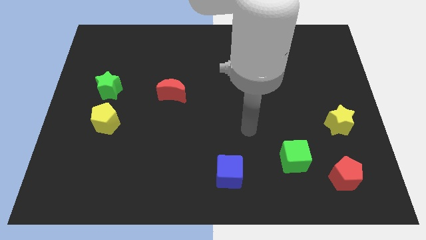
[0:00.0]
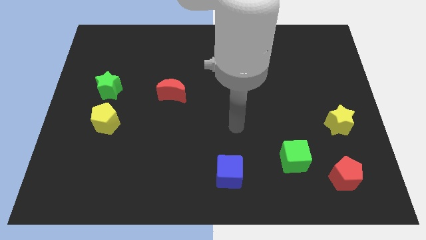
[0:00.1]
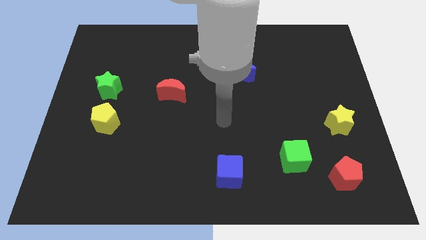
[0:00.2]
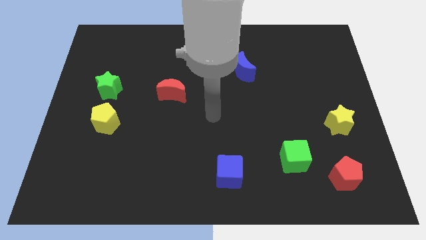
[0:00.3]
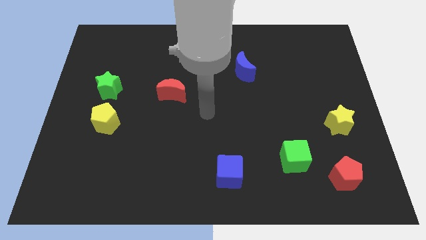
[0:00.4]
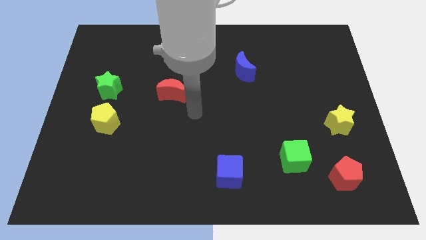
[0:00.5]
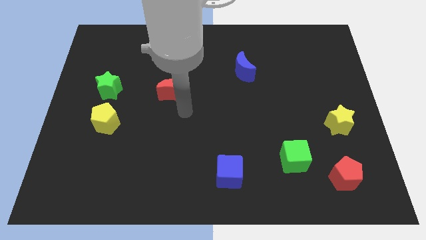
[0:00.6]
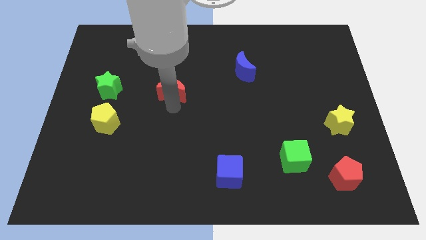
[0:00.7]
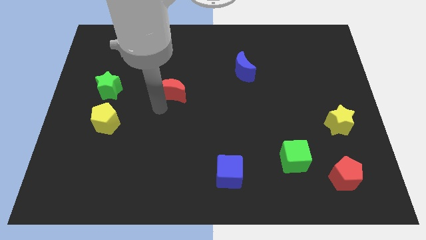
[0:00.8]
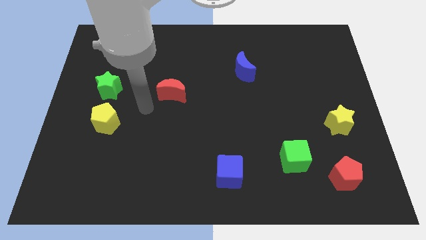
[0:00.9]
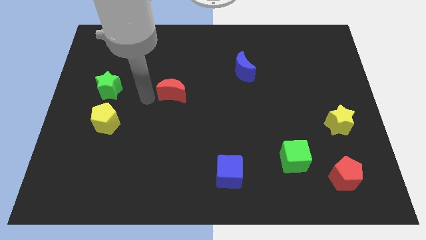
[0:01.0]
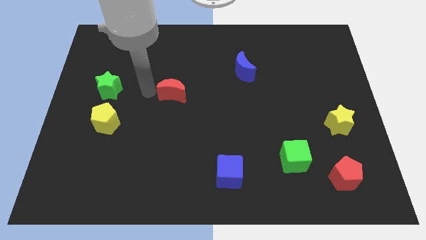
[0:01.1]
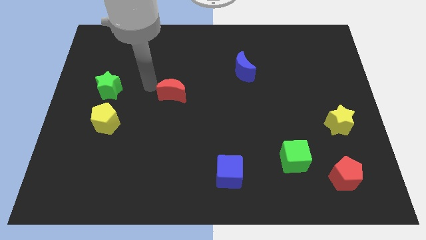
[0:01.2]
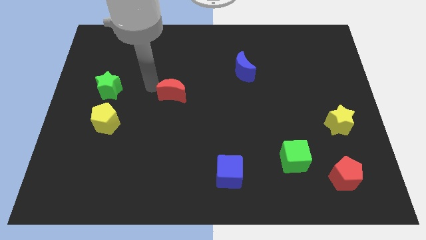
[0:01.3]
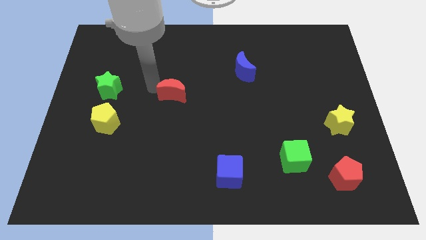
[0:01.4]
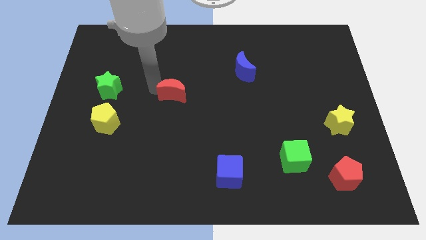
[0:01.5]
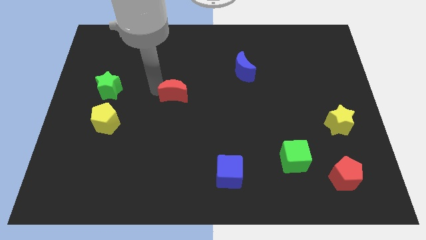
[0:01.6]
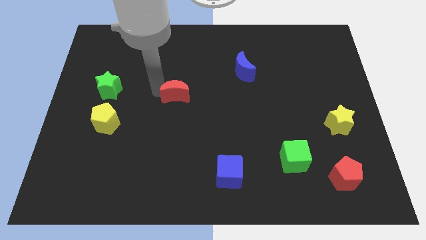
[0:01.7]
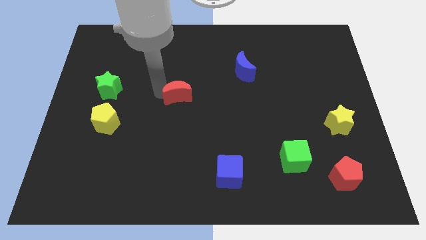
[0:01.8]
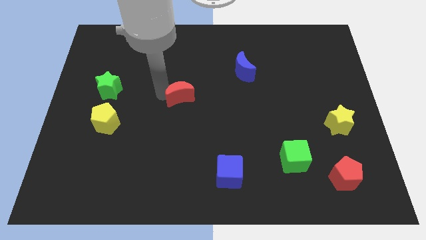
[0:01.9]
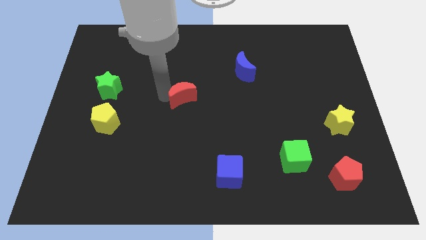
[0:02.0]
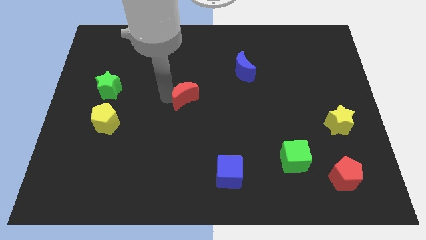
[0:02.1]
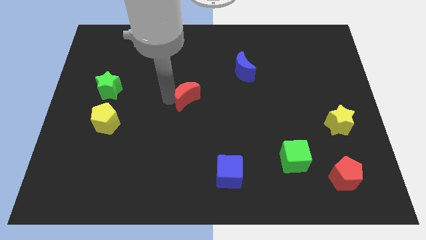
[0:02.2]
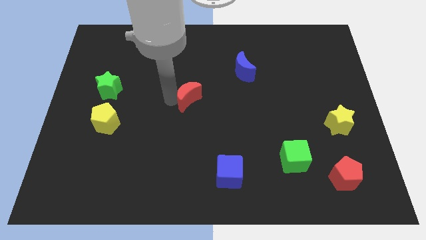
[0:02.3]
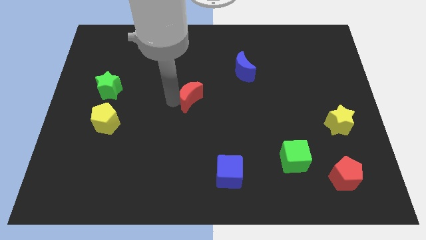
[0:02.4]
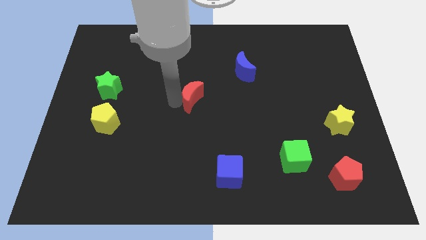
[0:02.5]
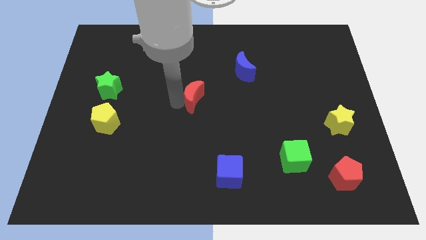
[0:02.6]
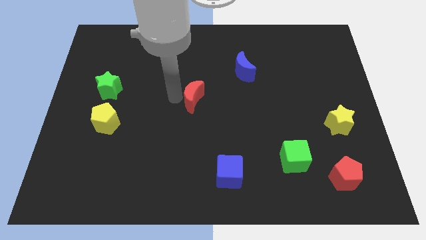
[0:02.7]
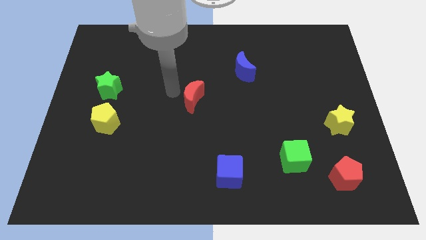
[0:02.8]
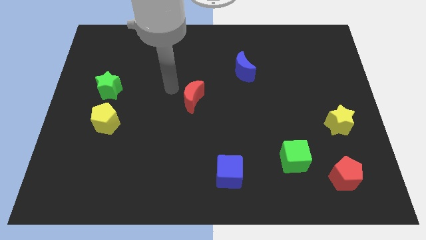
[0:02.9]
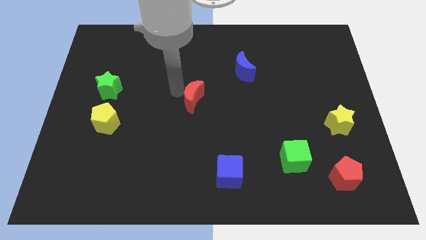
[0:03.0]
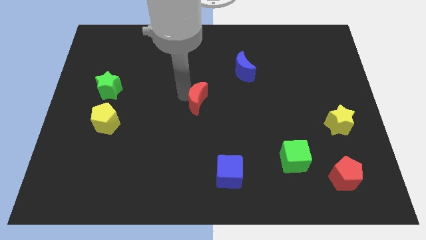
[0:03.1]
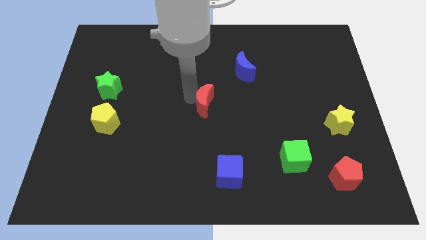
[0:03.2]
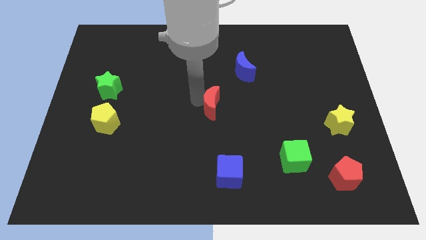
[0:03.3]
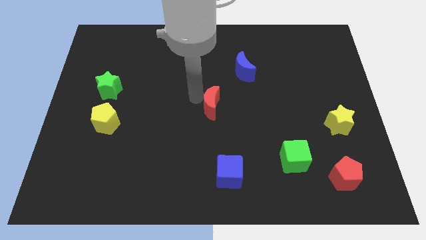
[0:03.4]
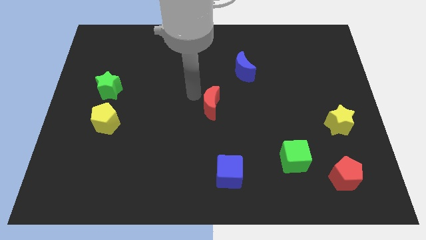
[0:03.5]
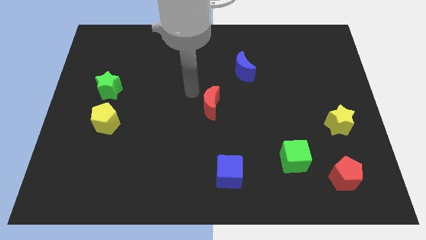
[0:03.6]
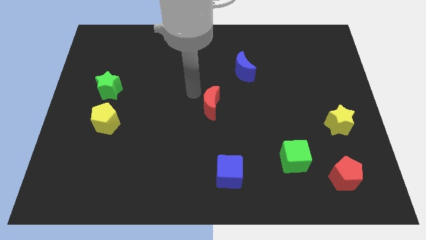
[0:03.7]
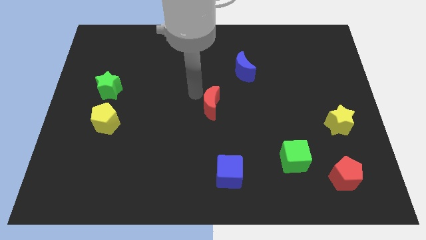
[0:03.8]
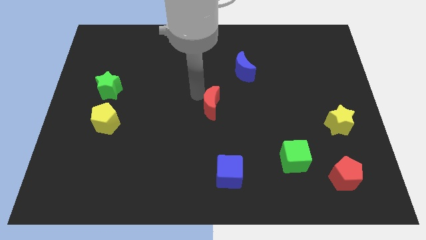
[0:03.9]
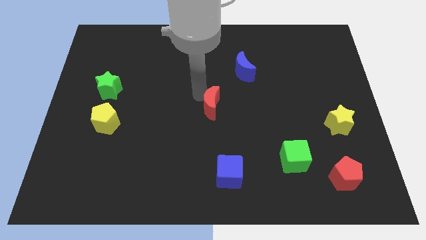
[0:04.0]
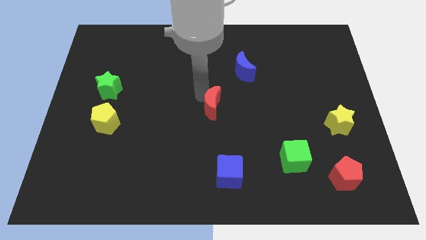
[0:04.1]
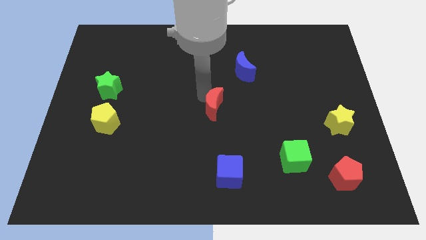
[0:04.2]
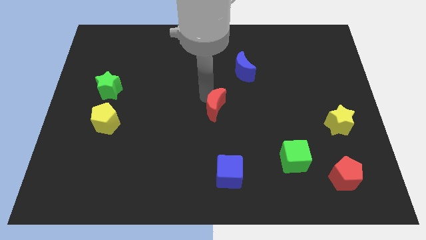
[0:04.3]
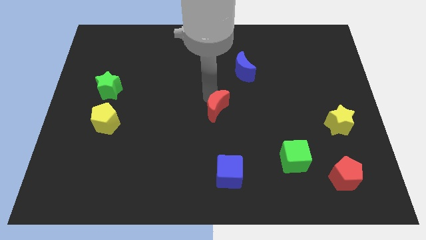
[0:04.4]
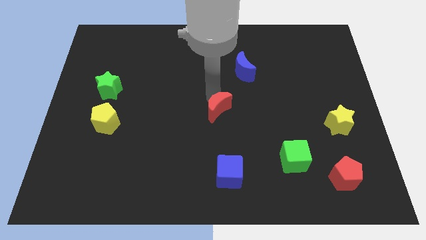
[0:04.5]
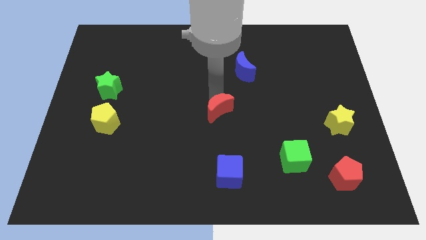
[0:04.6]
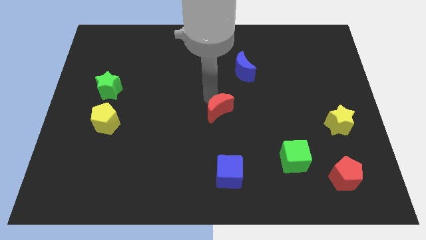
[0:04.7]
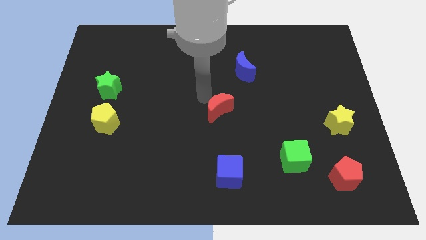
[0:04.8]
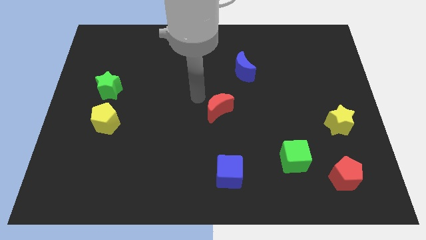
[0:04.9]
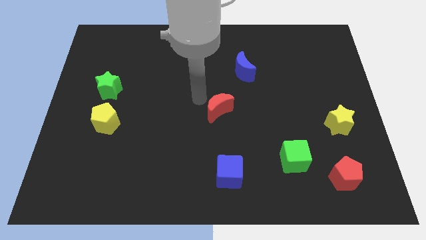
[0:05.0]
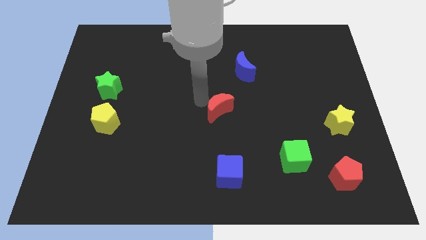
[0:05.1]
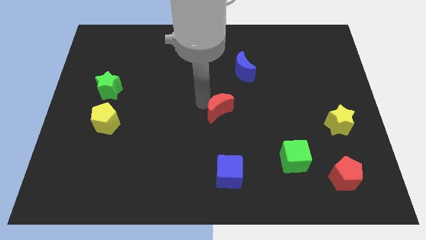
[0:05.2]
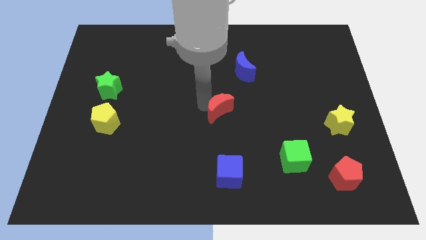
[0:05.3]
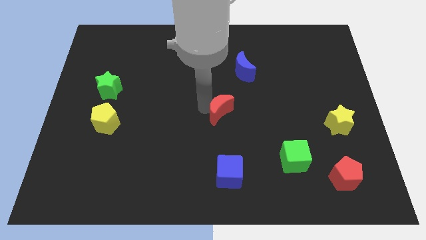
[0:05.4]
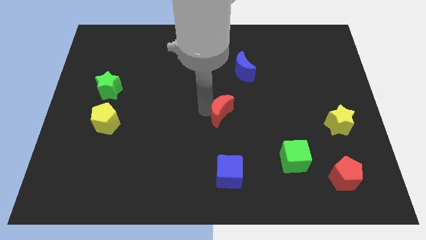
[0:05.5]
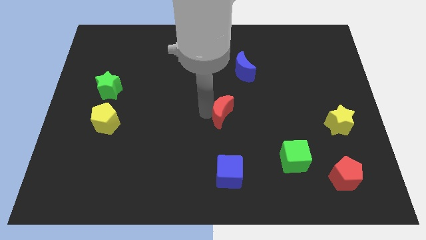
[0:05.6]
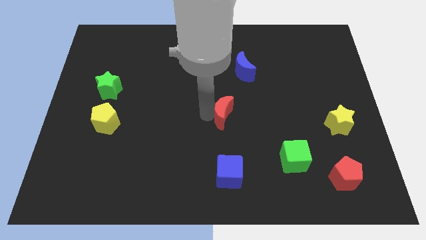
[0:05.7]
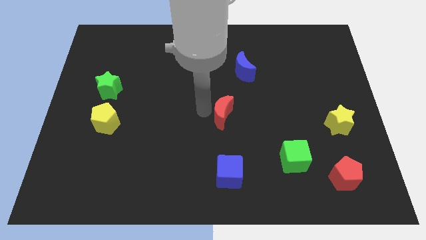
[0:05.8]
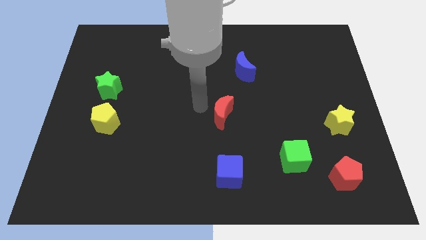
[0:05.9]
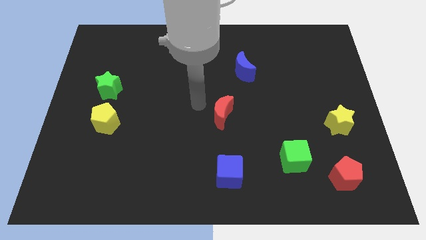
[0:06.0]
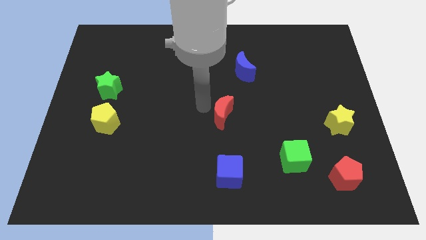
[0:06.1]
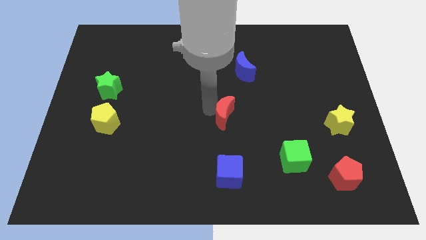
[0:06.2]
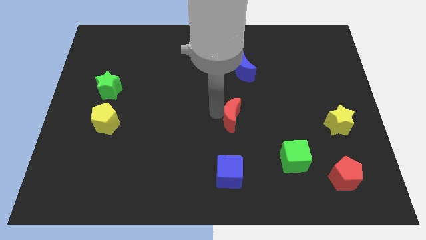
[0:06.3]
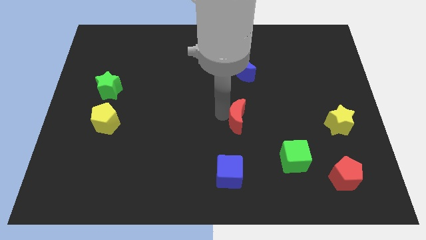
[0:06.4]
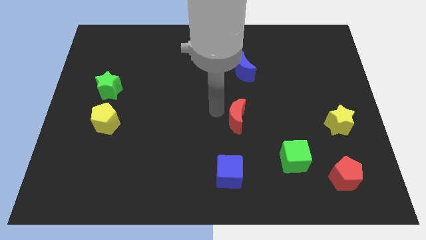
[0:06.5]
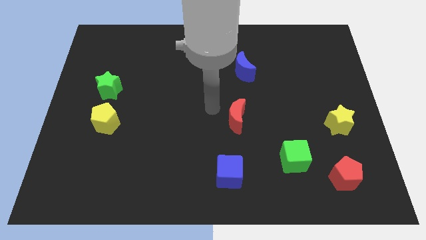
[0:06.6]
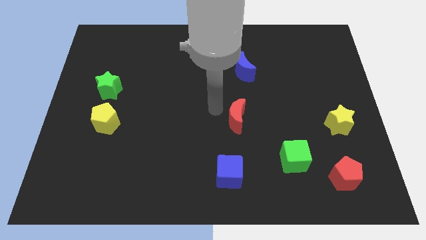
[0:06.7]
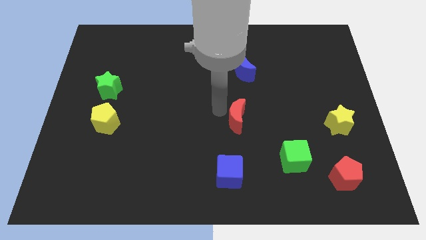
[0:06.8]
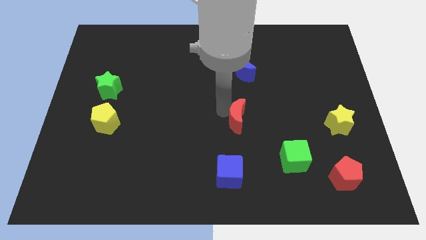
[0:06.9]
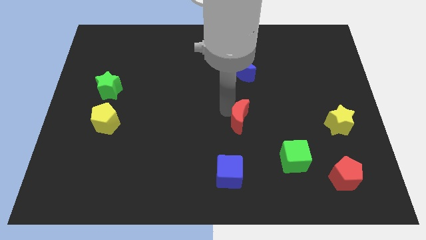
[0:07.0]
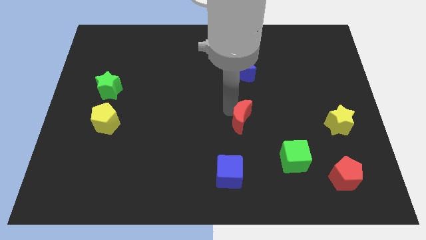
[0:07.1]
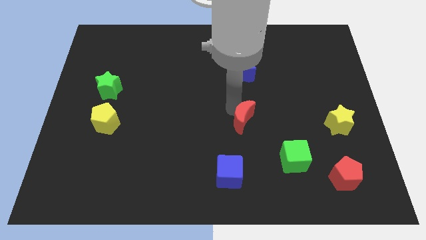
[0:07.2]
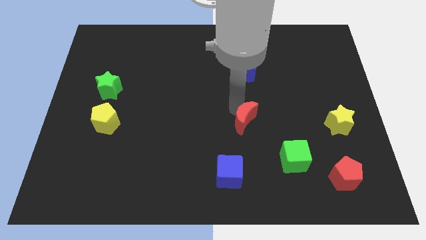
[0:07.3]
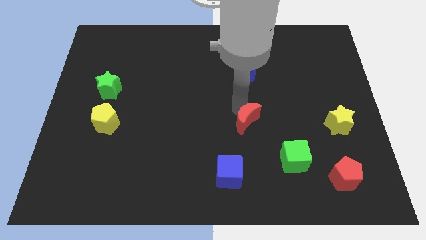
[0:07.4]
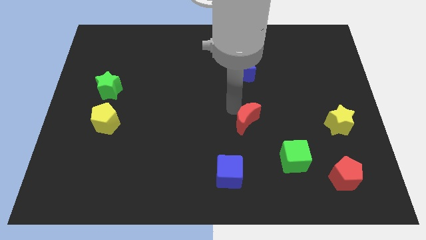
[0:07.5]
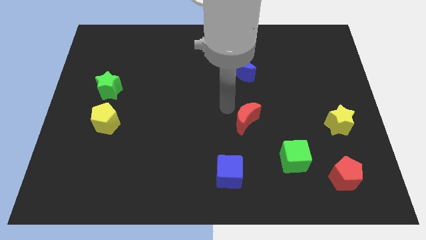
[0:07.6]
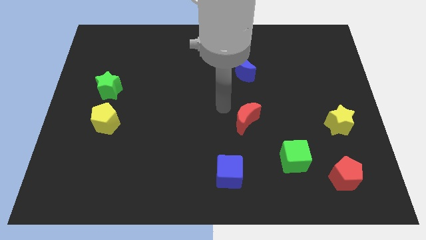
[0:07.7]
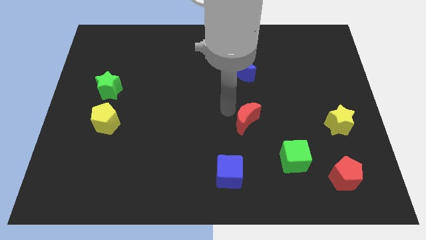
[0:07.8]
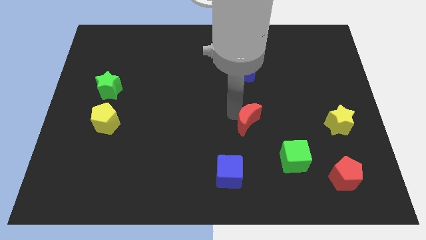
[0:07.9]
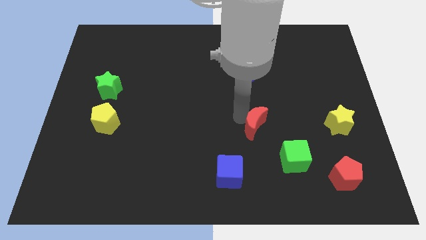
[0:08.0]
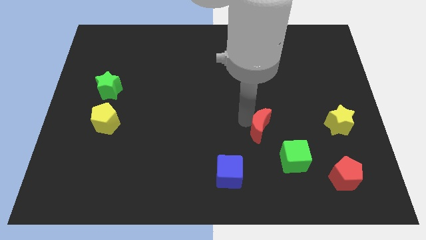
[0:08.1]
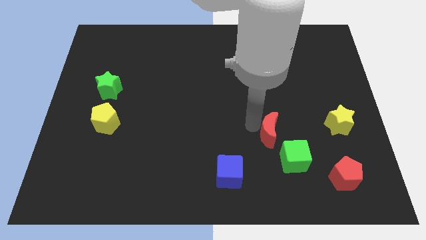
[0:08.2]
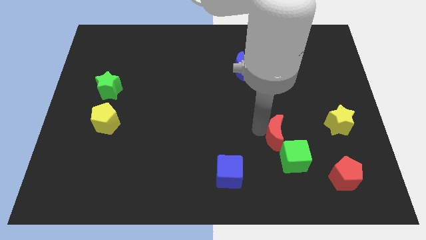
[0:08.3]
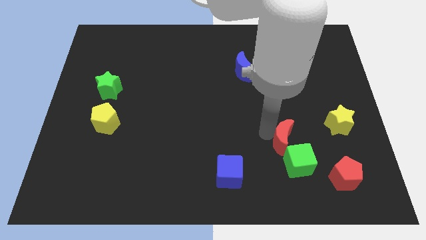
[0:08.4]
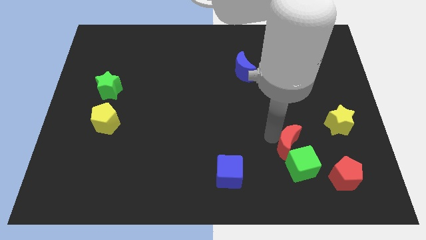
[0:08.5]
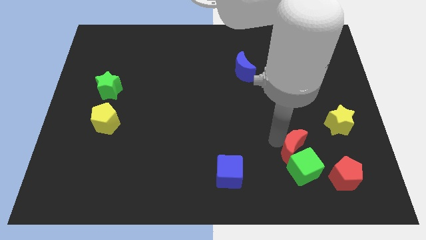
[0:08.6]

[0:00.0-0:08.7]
push the red moon diagonally up and to the left of the red pentagon
